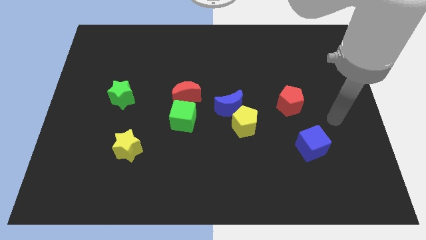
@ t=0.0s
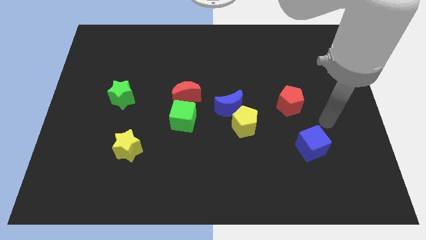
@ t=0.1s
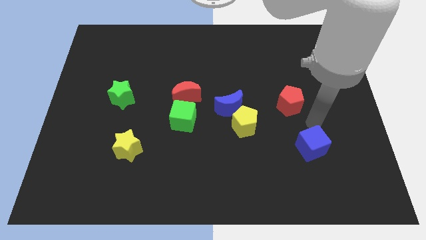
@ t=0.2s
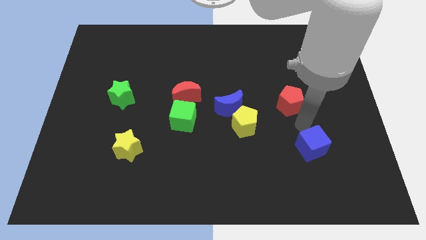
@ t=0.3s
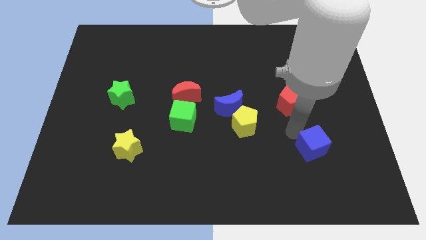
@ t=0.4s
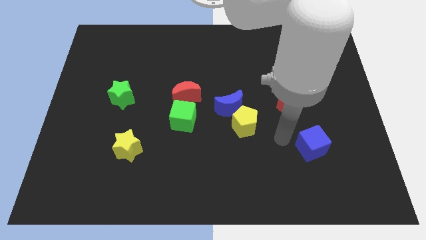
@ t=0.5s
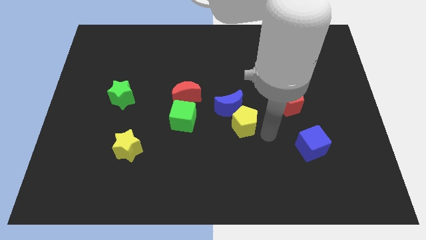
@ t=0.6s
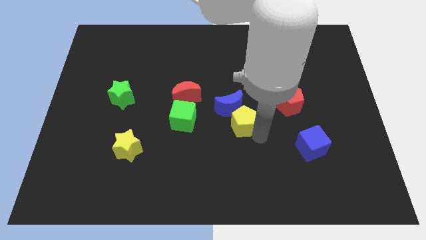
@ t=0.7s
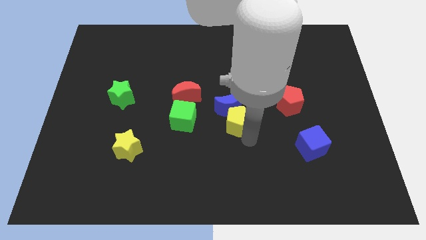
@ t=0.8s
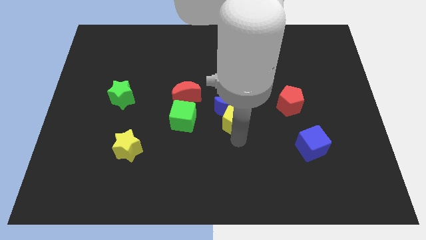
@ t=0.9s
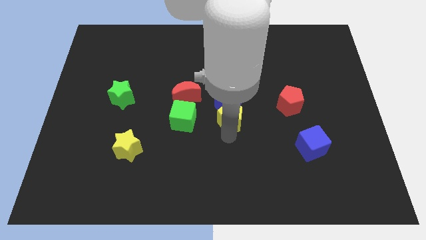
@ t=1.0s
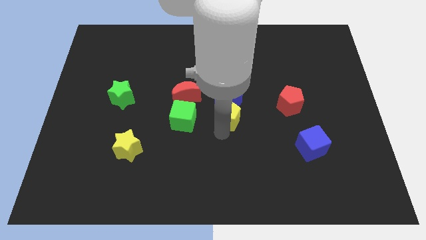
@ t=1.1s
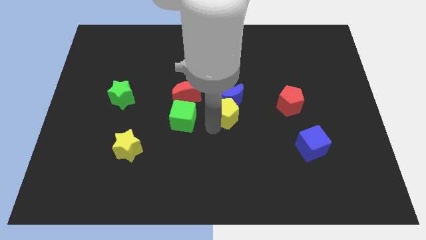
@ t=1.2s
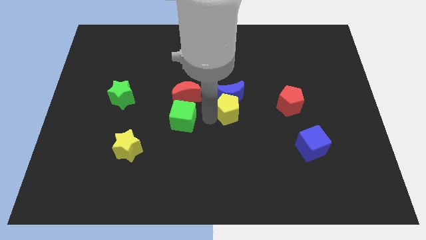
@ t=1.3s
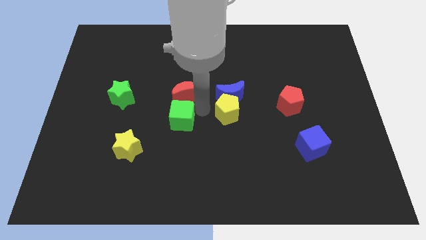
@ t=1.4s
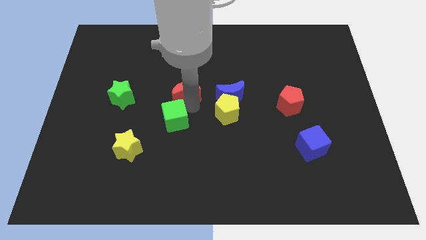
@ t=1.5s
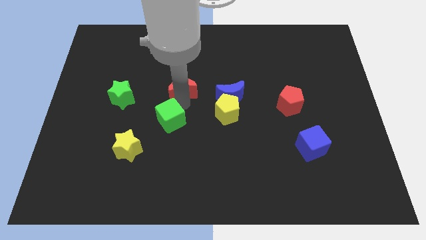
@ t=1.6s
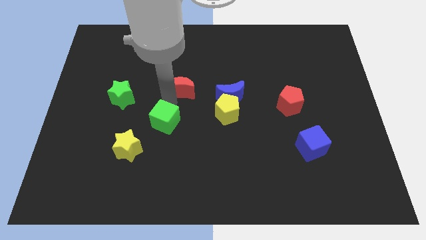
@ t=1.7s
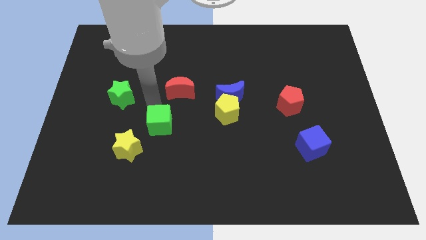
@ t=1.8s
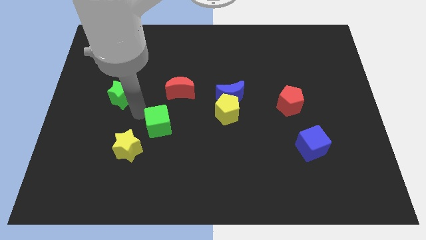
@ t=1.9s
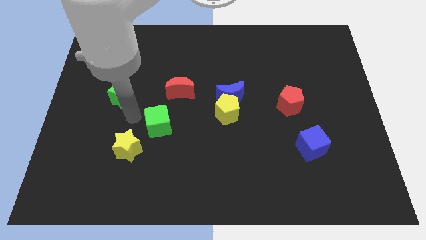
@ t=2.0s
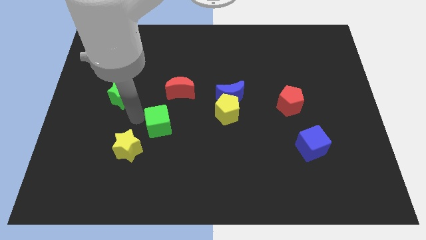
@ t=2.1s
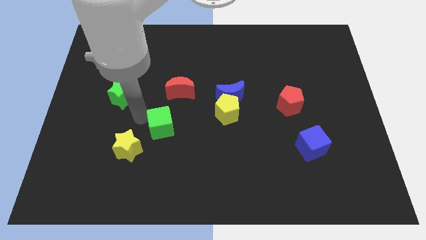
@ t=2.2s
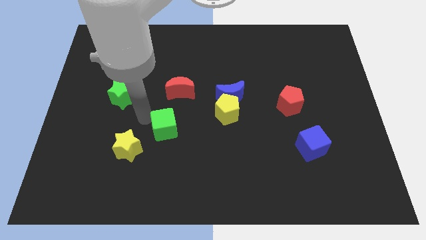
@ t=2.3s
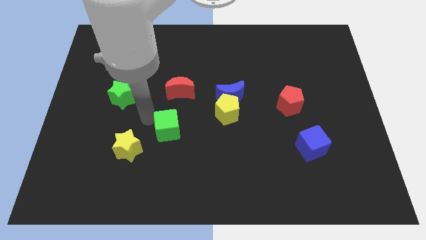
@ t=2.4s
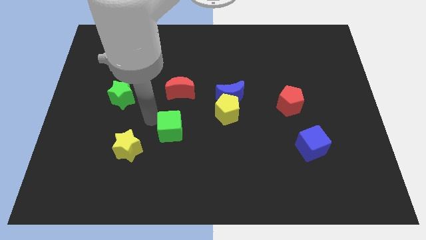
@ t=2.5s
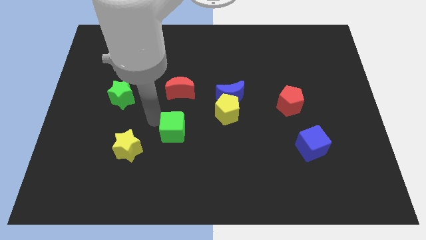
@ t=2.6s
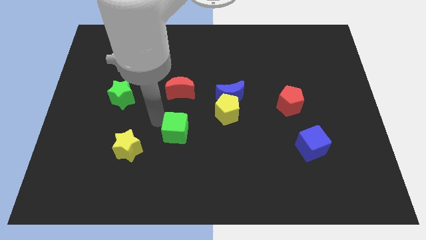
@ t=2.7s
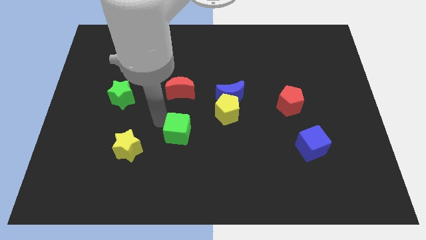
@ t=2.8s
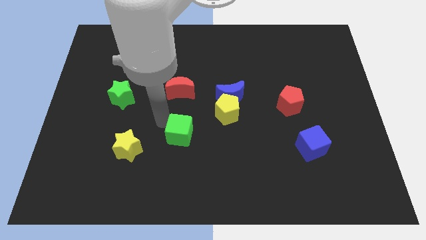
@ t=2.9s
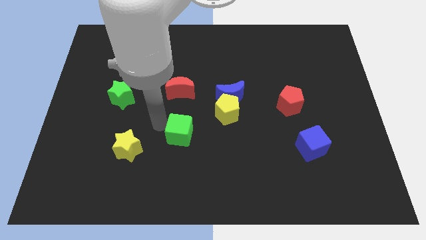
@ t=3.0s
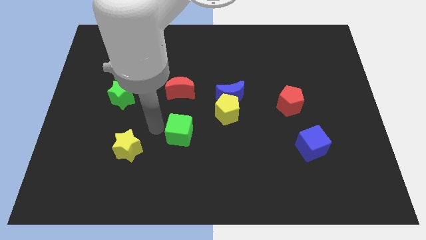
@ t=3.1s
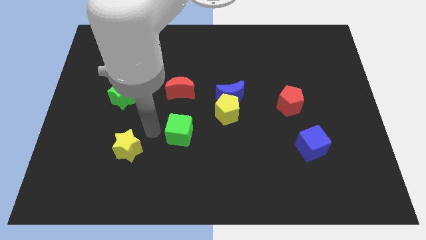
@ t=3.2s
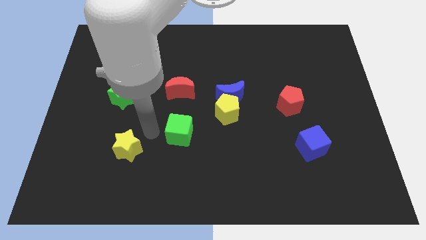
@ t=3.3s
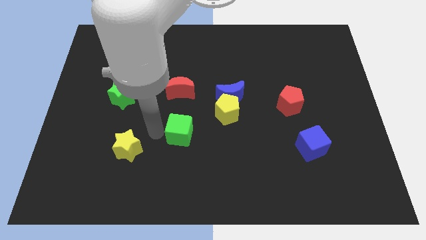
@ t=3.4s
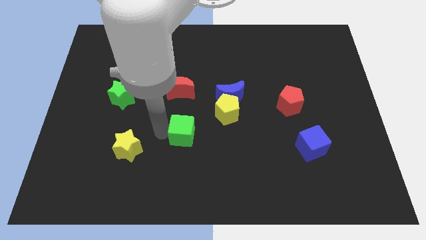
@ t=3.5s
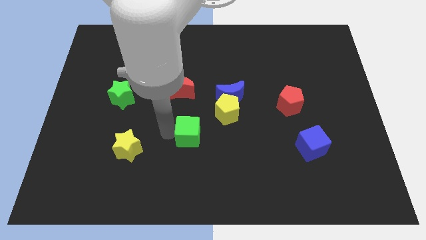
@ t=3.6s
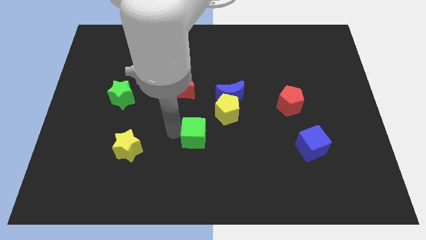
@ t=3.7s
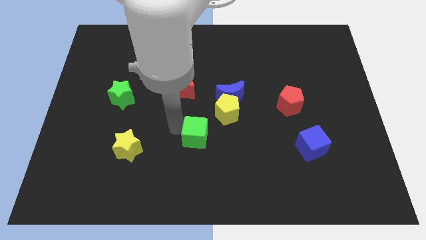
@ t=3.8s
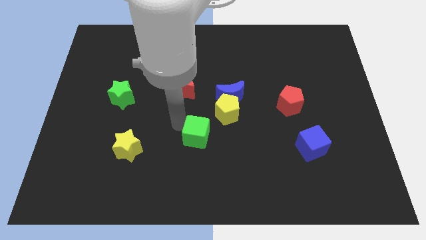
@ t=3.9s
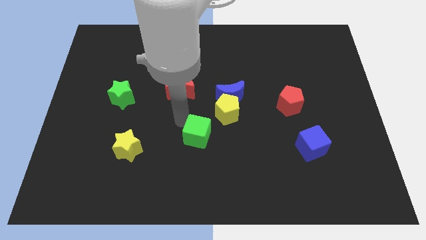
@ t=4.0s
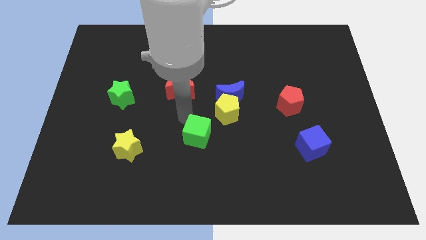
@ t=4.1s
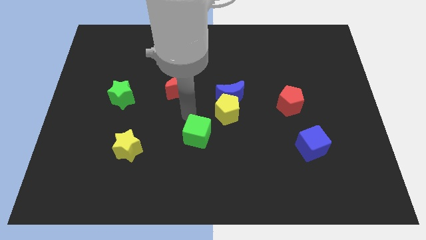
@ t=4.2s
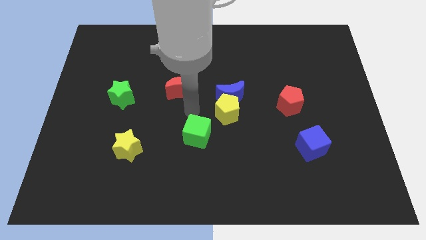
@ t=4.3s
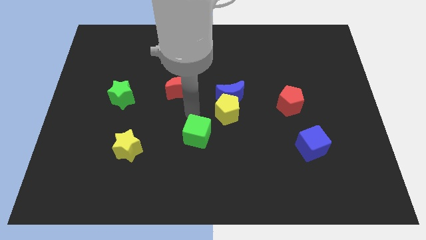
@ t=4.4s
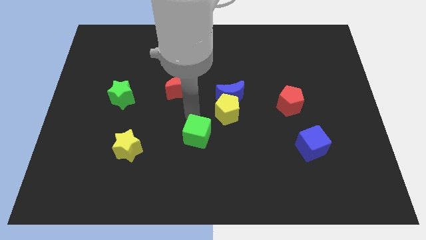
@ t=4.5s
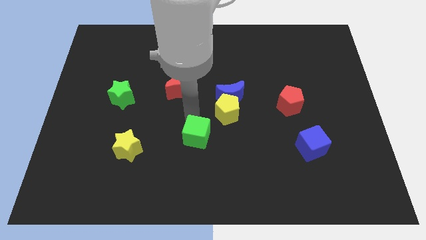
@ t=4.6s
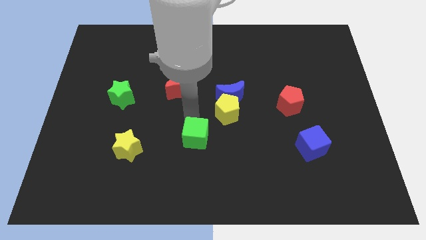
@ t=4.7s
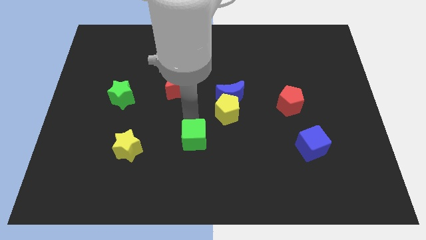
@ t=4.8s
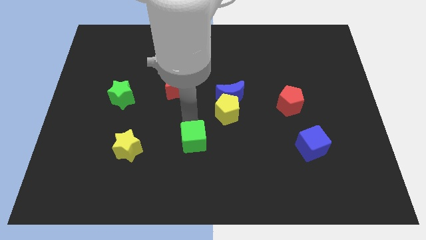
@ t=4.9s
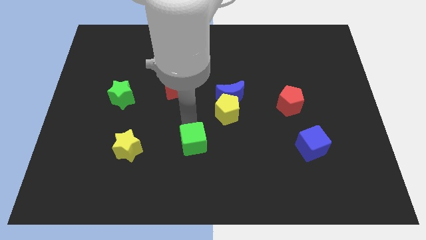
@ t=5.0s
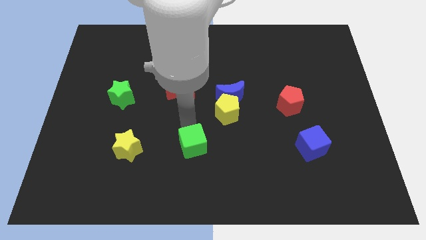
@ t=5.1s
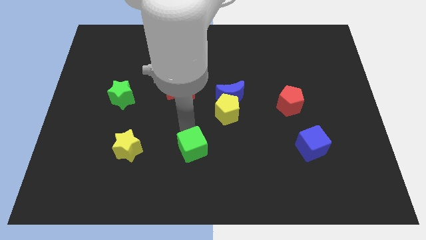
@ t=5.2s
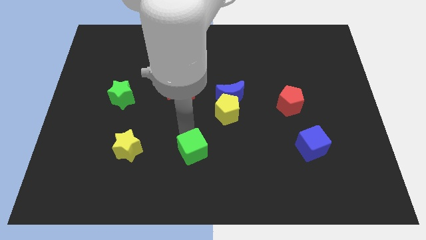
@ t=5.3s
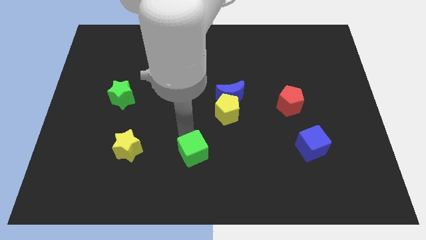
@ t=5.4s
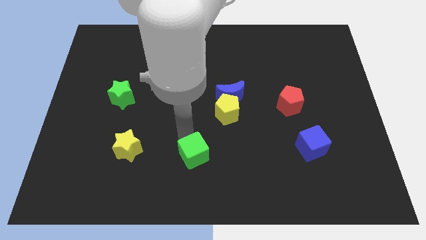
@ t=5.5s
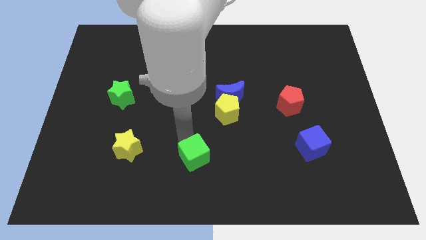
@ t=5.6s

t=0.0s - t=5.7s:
put the green cube to the bottom side

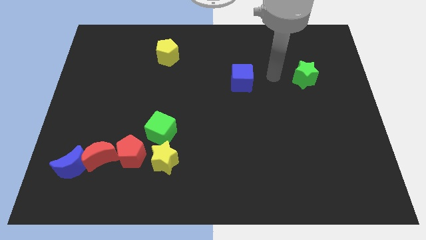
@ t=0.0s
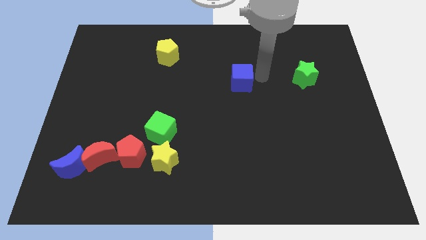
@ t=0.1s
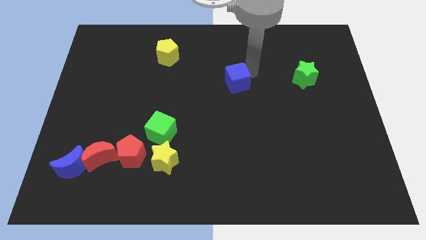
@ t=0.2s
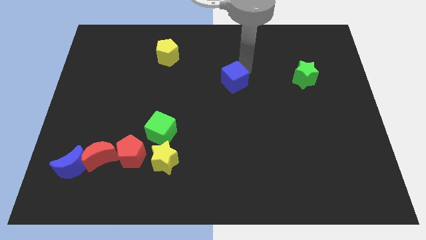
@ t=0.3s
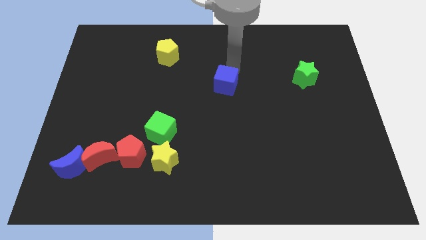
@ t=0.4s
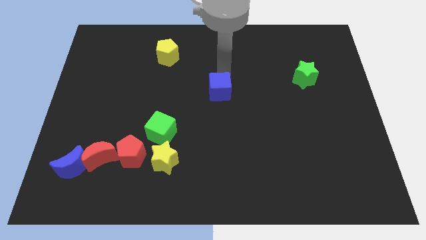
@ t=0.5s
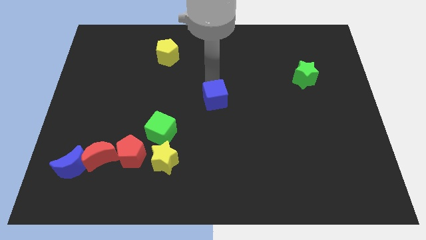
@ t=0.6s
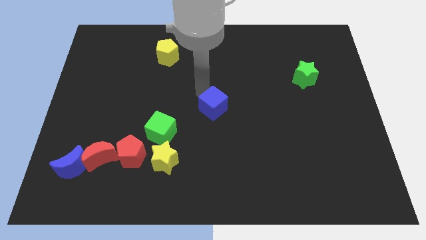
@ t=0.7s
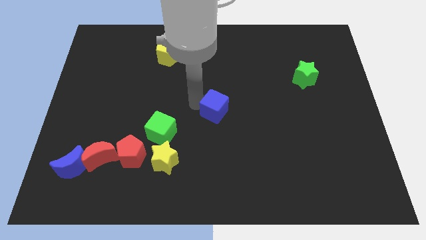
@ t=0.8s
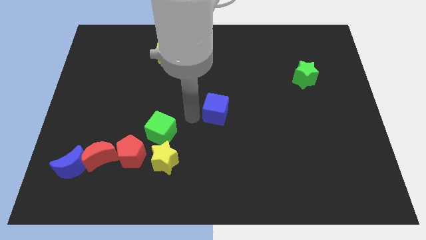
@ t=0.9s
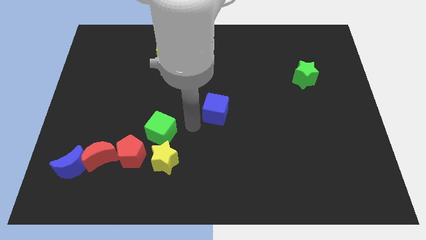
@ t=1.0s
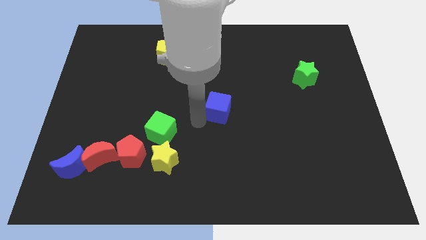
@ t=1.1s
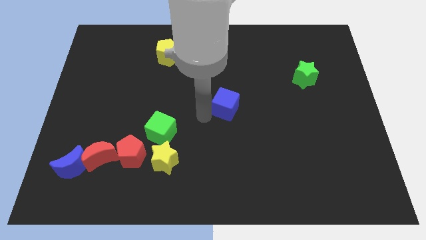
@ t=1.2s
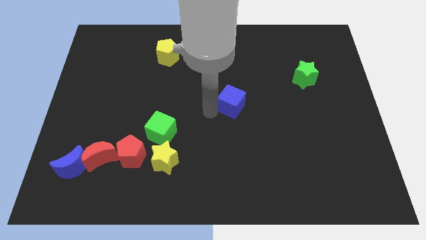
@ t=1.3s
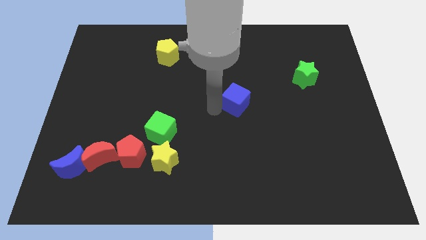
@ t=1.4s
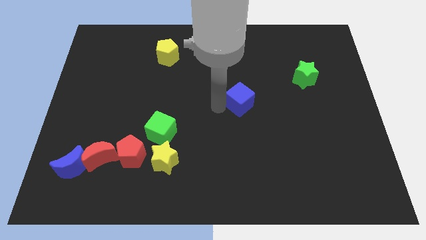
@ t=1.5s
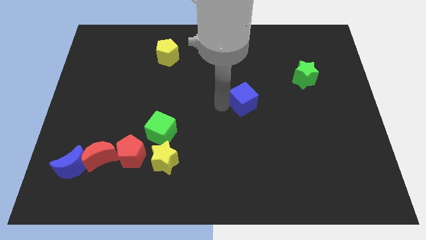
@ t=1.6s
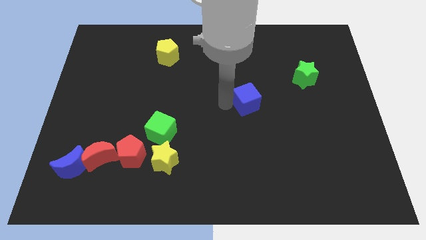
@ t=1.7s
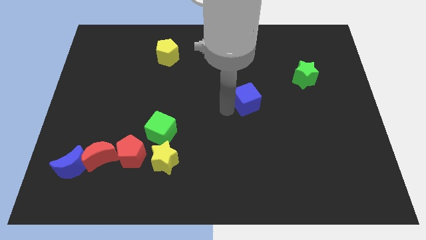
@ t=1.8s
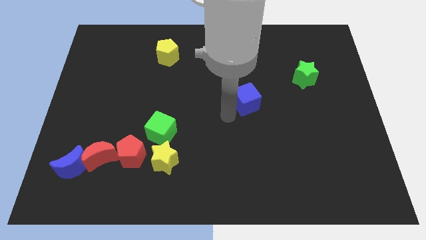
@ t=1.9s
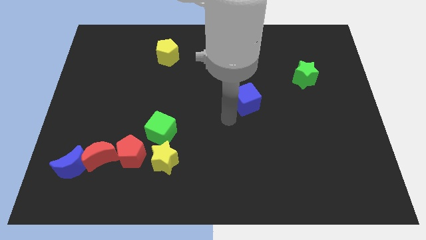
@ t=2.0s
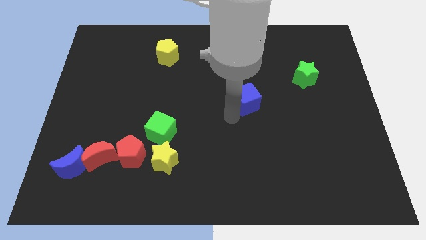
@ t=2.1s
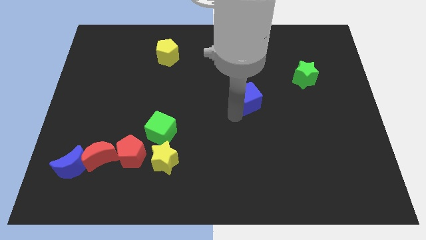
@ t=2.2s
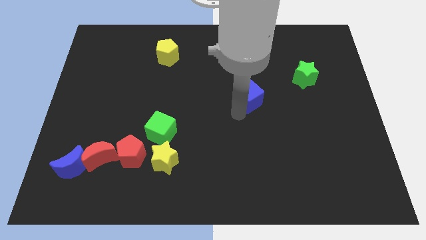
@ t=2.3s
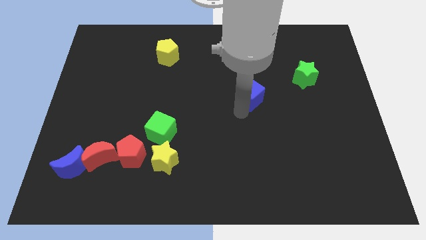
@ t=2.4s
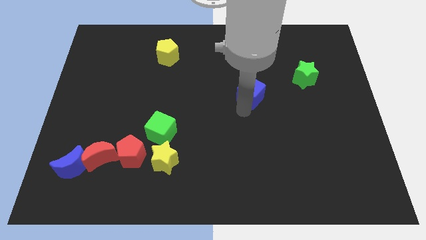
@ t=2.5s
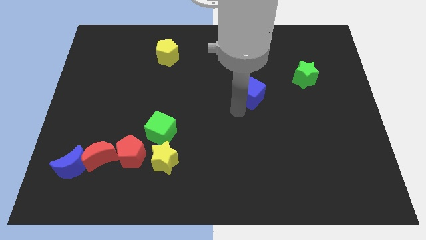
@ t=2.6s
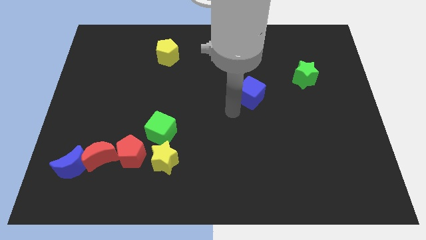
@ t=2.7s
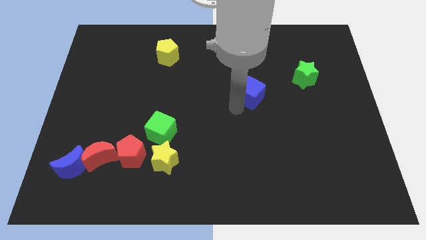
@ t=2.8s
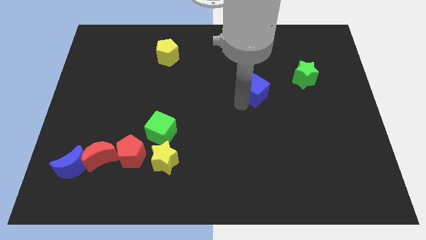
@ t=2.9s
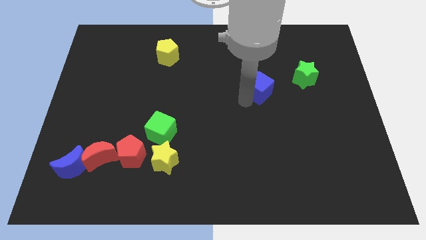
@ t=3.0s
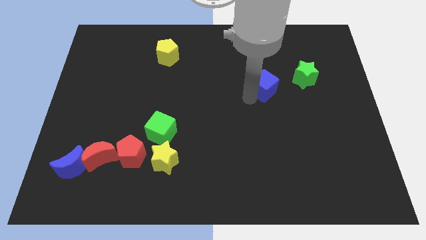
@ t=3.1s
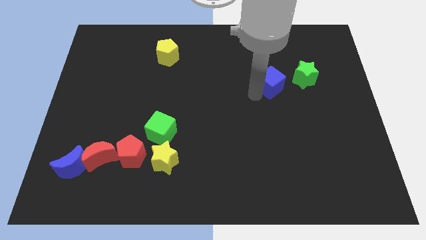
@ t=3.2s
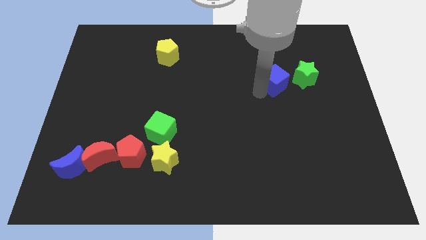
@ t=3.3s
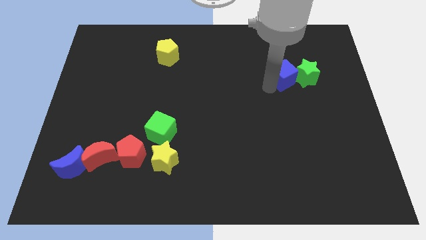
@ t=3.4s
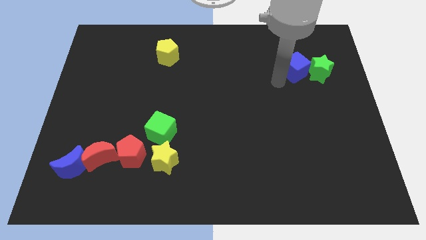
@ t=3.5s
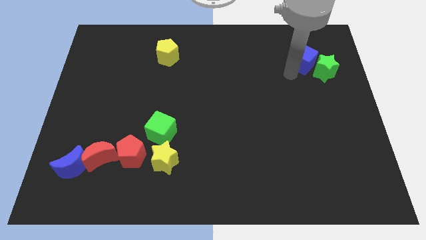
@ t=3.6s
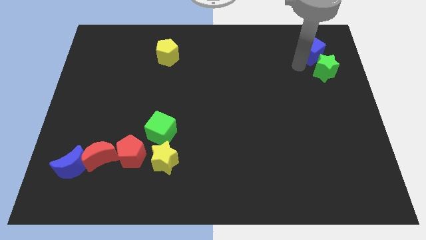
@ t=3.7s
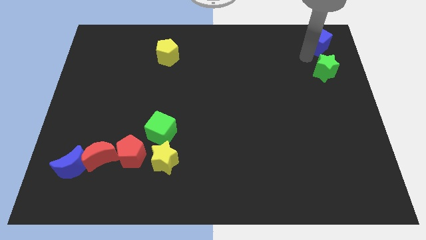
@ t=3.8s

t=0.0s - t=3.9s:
move the blue cube to the top right corner
